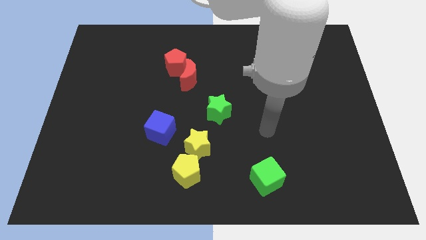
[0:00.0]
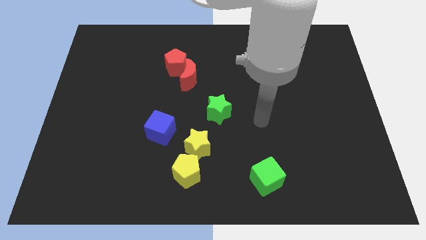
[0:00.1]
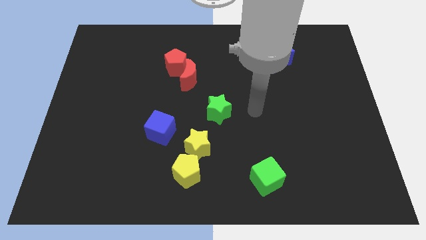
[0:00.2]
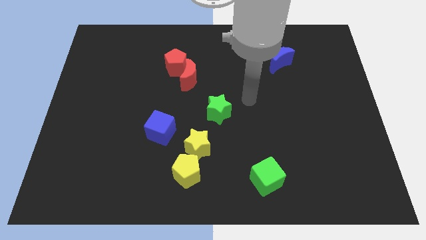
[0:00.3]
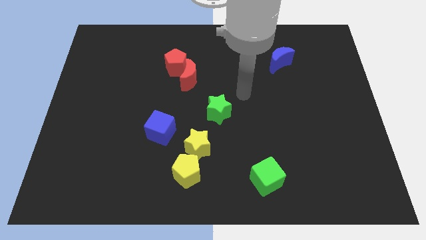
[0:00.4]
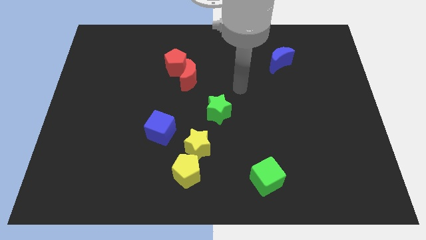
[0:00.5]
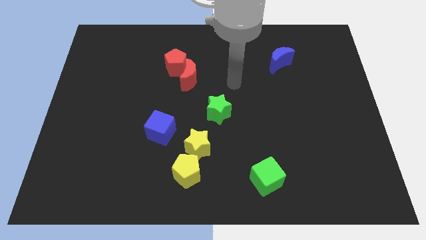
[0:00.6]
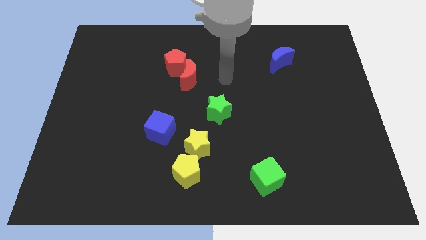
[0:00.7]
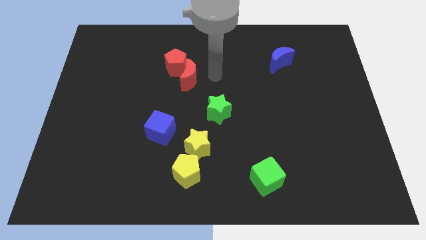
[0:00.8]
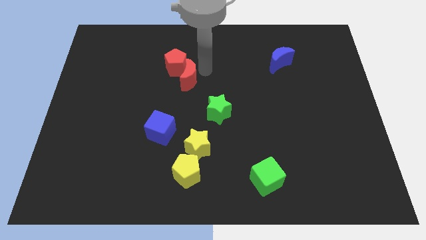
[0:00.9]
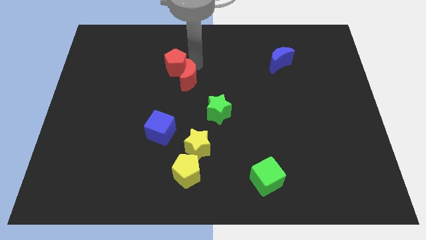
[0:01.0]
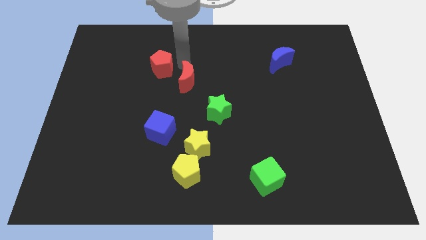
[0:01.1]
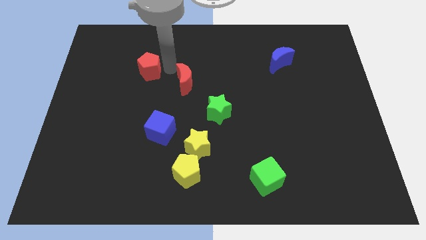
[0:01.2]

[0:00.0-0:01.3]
move the red moon away from the red pentagon

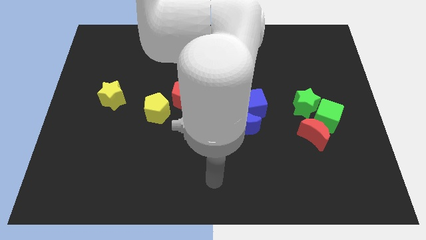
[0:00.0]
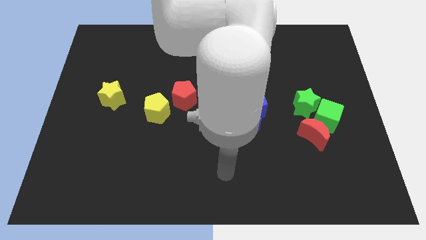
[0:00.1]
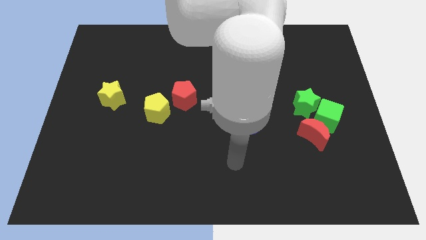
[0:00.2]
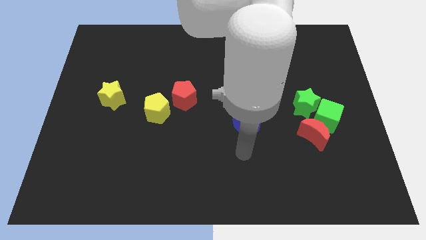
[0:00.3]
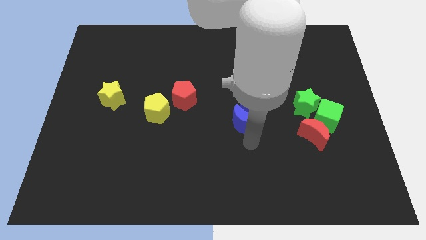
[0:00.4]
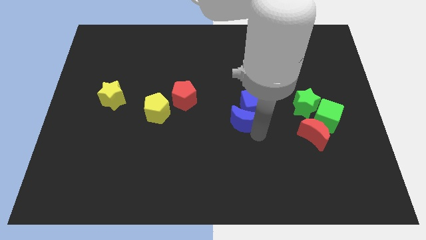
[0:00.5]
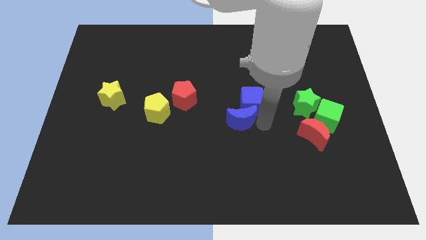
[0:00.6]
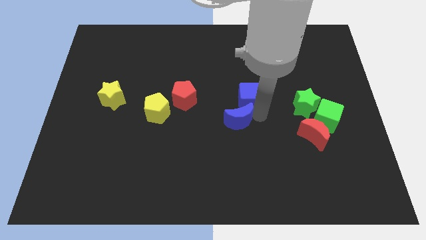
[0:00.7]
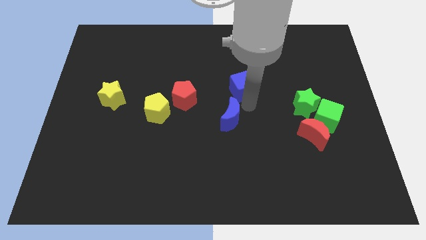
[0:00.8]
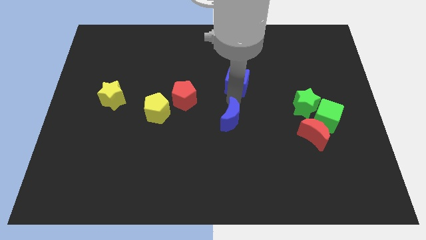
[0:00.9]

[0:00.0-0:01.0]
pull the blue moon apart from the blue cube

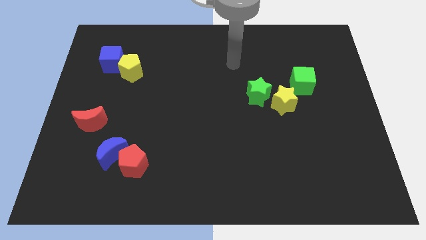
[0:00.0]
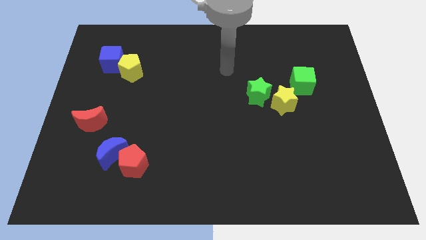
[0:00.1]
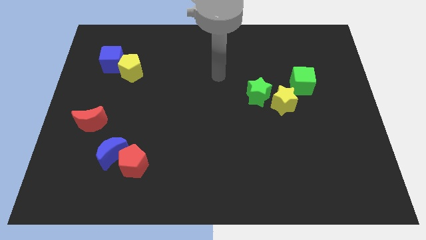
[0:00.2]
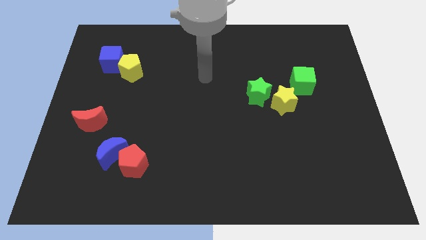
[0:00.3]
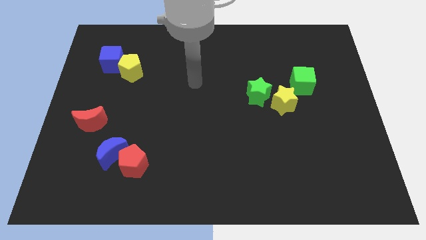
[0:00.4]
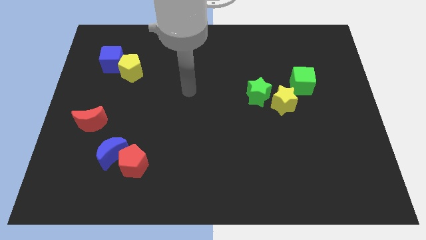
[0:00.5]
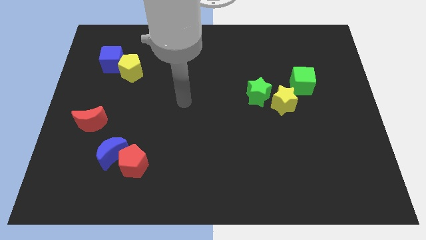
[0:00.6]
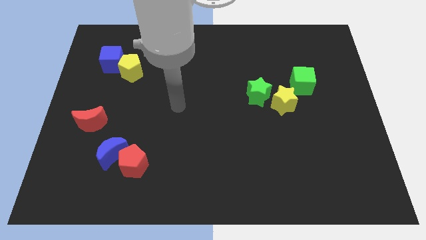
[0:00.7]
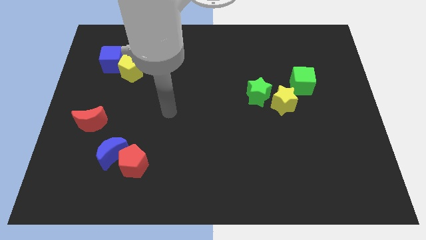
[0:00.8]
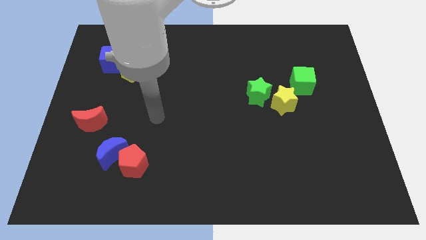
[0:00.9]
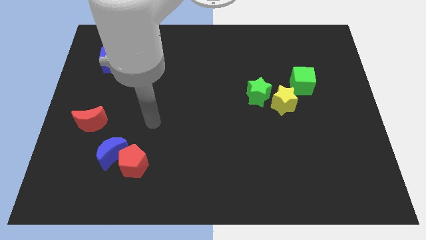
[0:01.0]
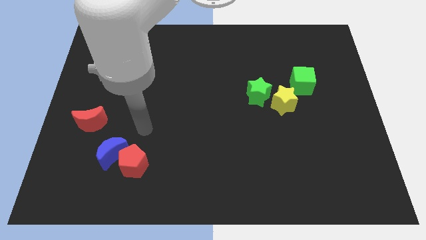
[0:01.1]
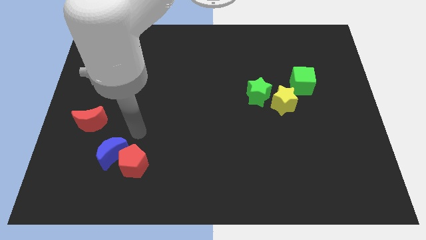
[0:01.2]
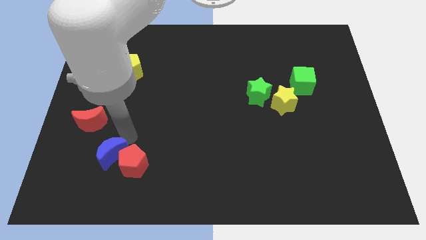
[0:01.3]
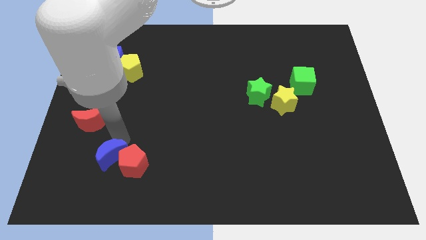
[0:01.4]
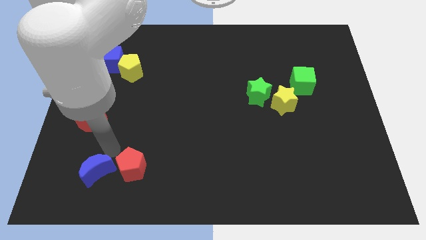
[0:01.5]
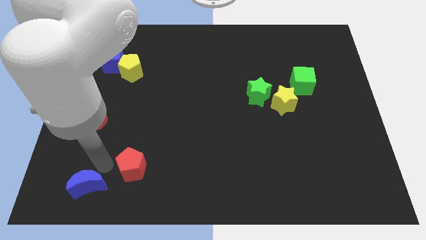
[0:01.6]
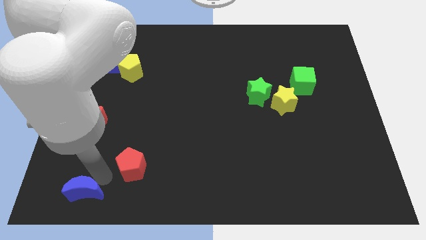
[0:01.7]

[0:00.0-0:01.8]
pull the red pentagon apart from the blue moon

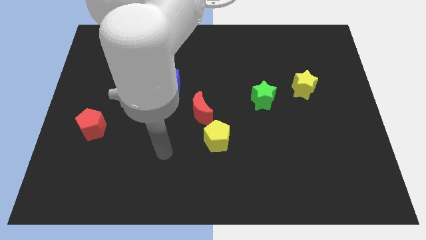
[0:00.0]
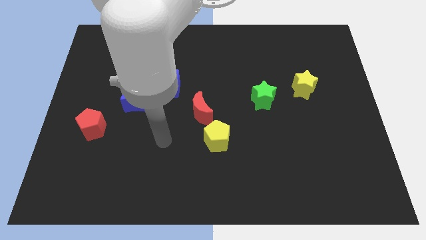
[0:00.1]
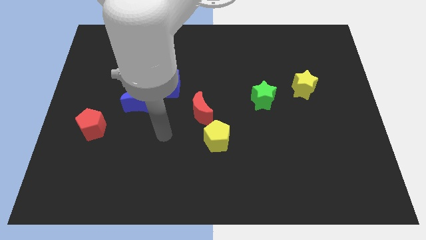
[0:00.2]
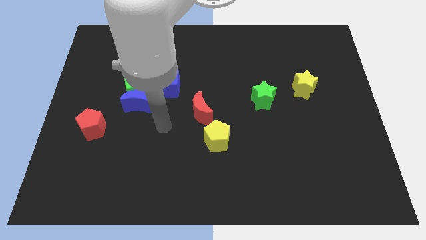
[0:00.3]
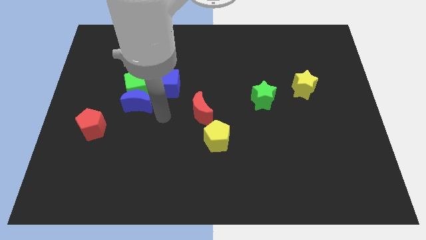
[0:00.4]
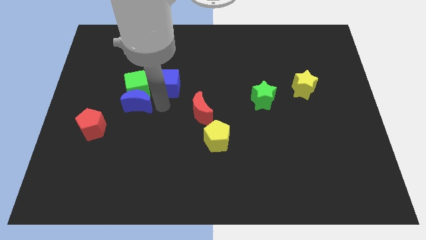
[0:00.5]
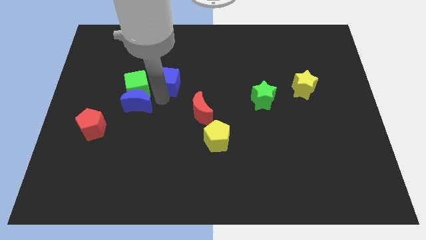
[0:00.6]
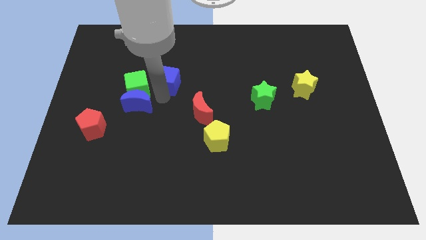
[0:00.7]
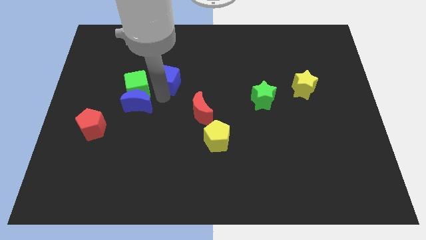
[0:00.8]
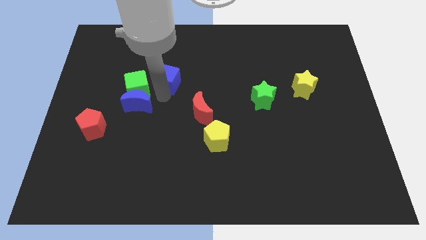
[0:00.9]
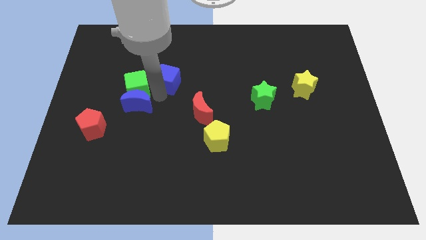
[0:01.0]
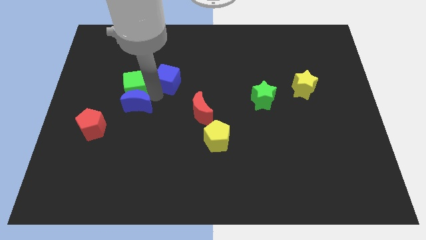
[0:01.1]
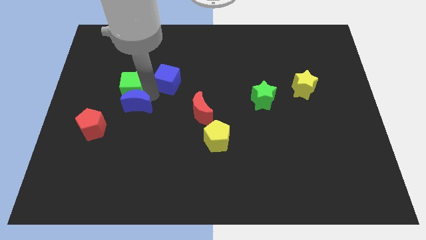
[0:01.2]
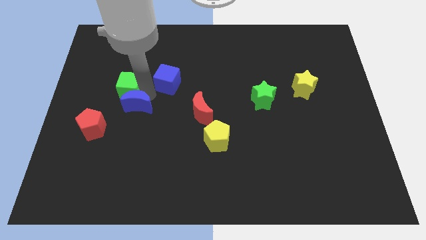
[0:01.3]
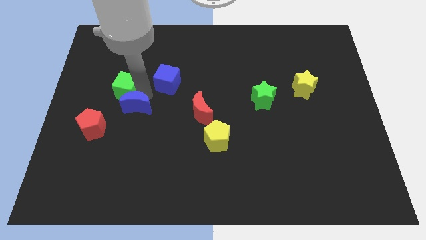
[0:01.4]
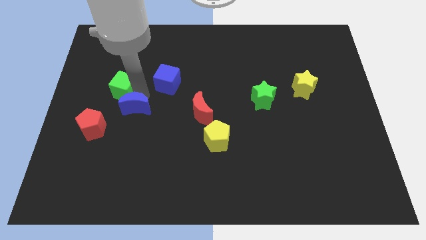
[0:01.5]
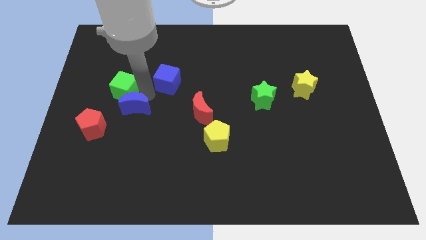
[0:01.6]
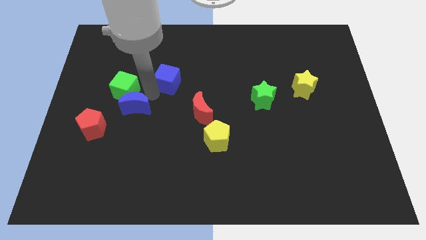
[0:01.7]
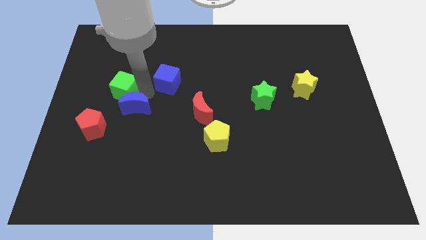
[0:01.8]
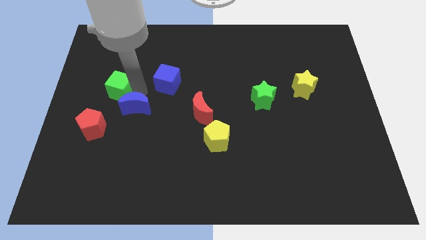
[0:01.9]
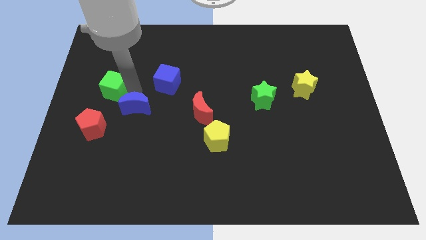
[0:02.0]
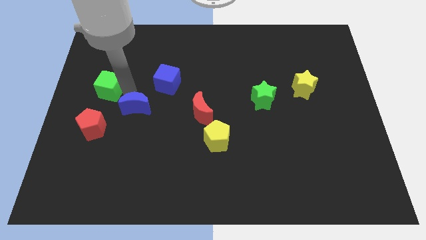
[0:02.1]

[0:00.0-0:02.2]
move the green cube away from the blue moon and blue cube

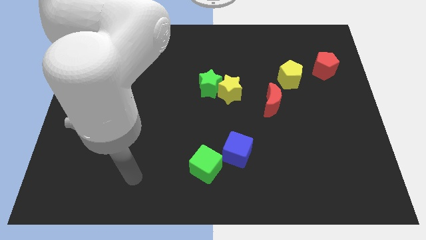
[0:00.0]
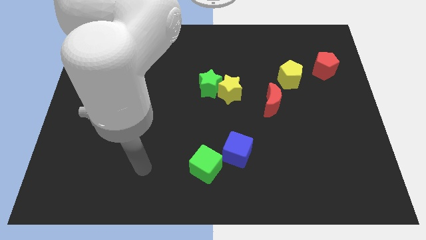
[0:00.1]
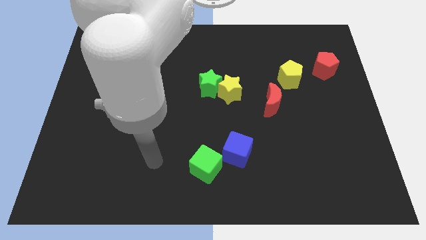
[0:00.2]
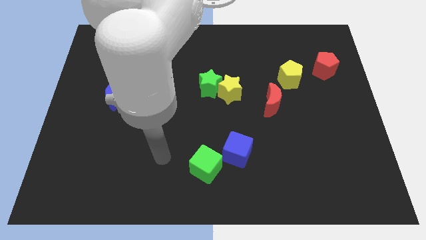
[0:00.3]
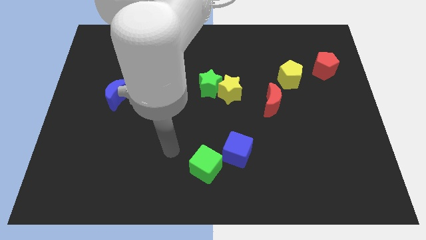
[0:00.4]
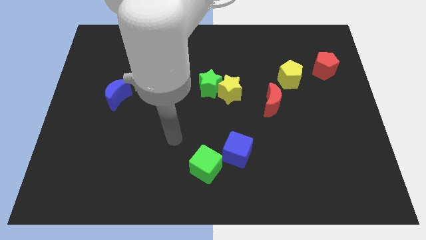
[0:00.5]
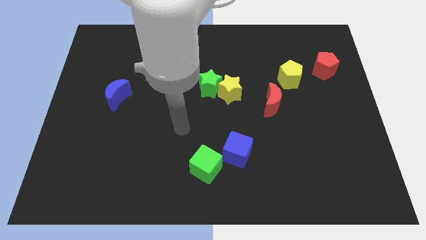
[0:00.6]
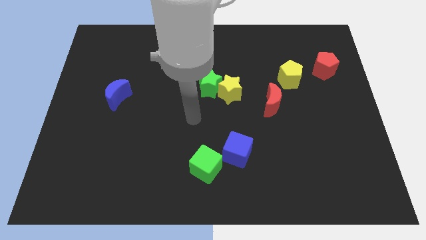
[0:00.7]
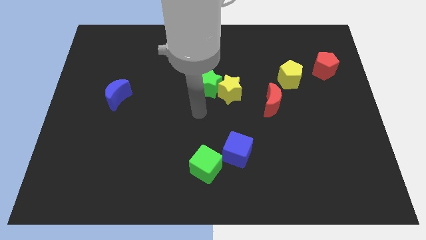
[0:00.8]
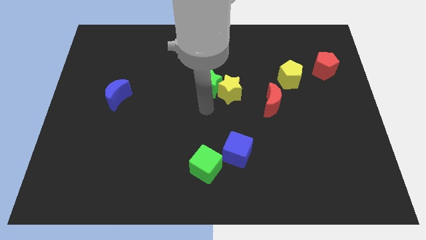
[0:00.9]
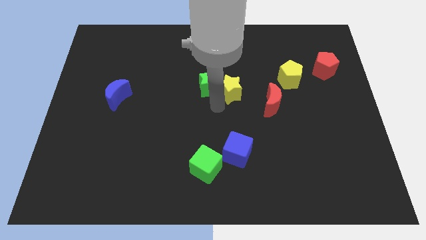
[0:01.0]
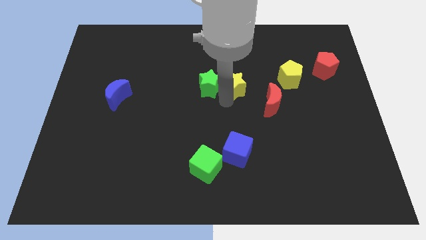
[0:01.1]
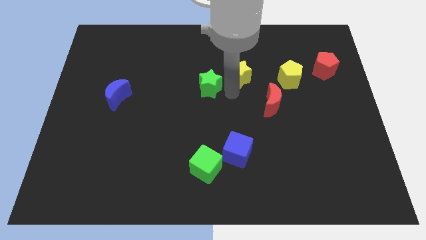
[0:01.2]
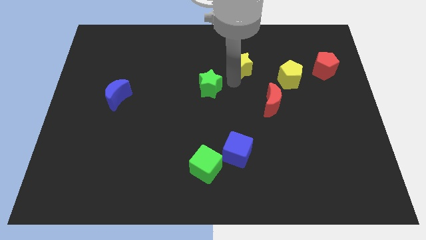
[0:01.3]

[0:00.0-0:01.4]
pull the green star apart from the yellow star

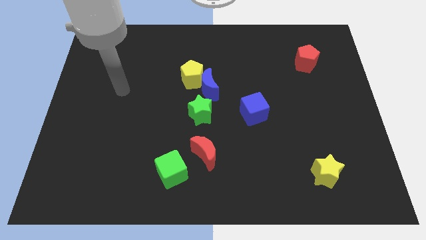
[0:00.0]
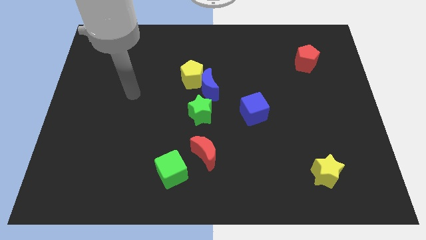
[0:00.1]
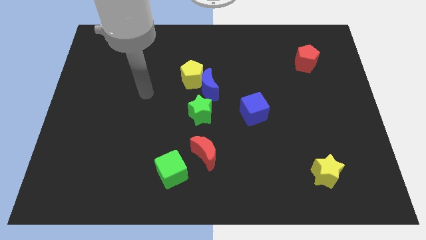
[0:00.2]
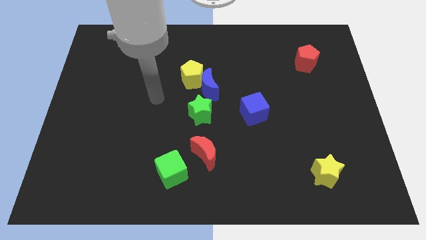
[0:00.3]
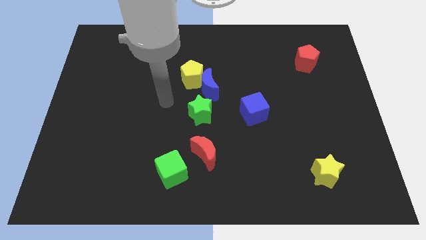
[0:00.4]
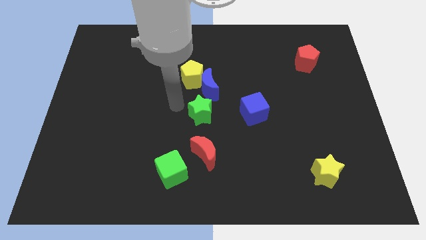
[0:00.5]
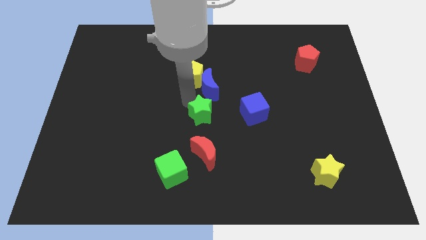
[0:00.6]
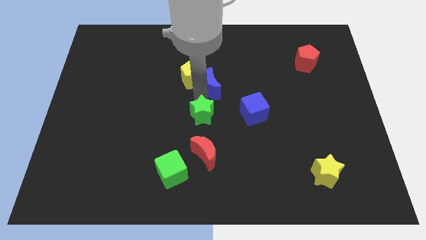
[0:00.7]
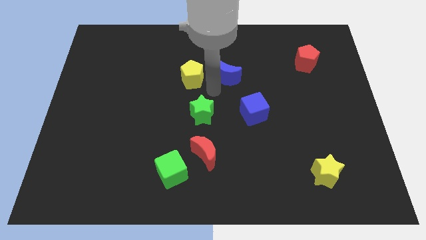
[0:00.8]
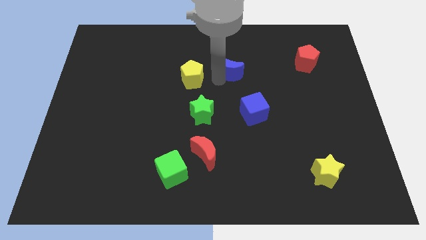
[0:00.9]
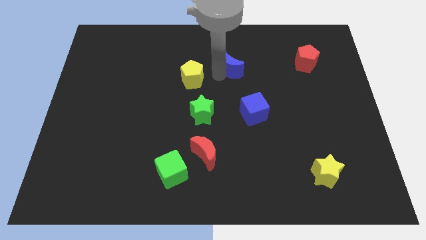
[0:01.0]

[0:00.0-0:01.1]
move the yellow pentagon away from the blue moon

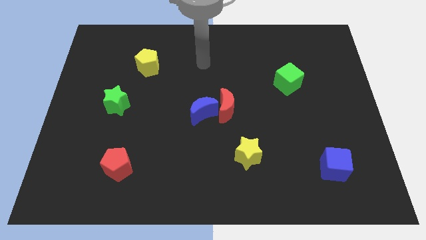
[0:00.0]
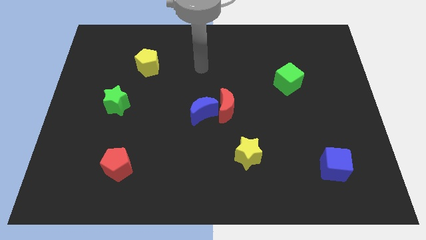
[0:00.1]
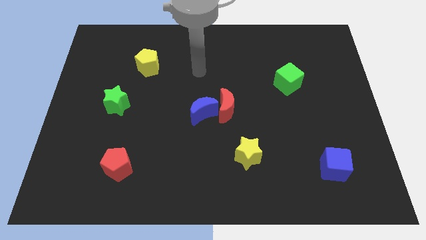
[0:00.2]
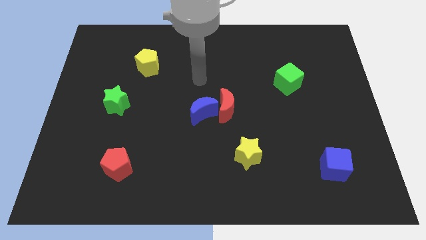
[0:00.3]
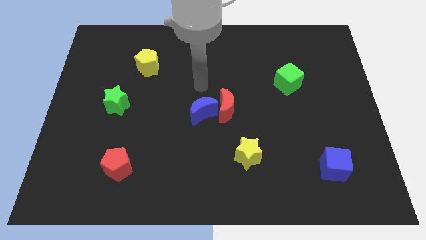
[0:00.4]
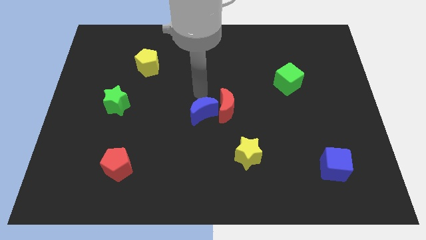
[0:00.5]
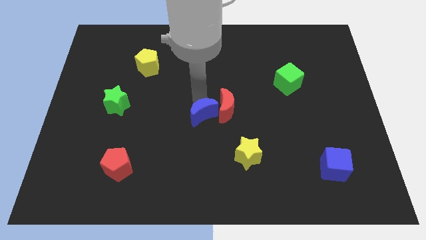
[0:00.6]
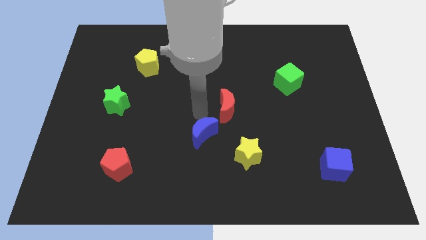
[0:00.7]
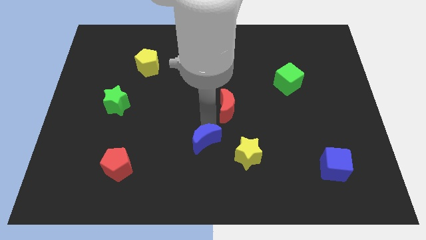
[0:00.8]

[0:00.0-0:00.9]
separate the red moon from the blue moon
